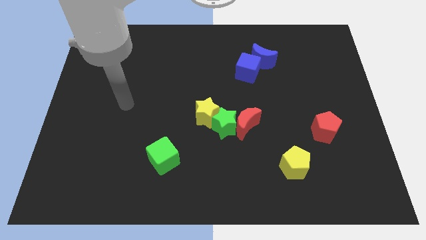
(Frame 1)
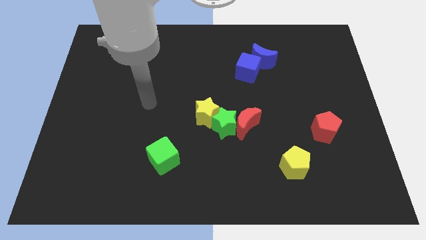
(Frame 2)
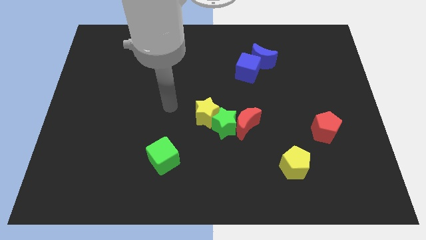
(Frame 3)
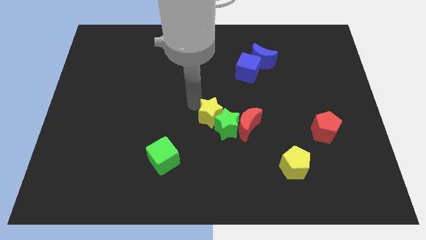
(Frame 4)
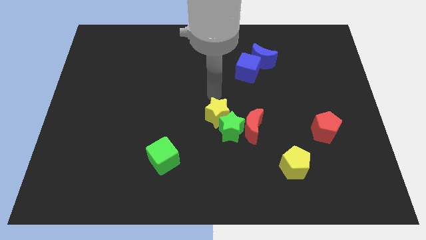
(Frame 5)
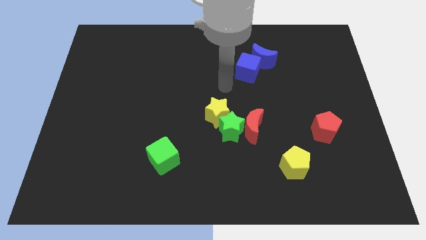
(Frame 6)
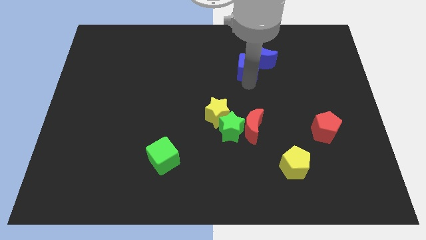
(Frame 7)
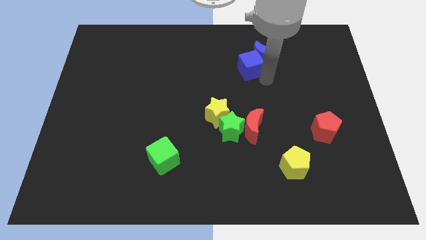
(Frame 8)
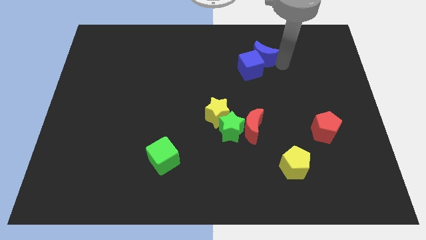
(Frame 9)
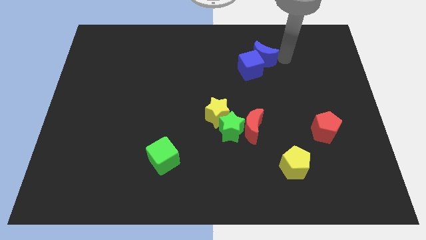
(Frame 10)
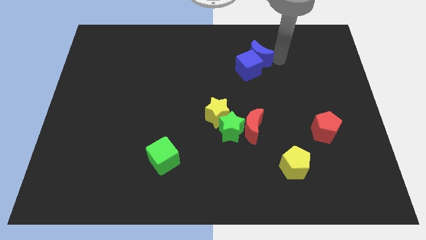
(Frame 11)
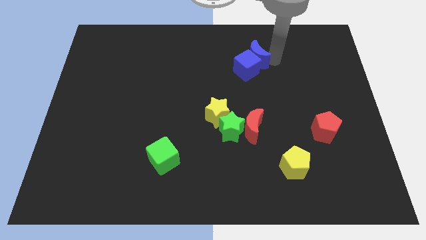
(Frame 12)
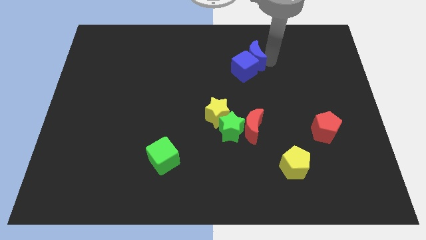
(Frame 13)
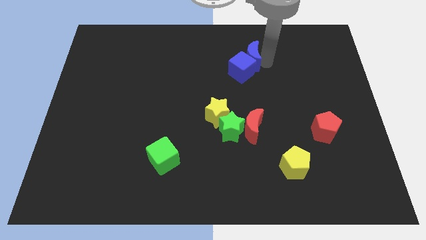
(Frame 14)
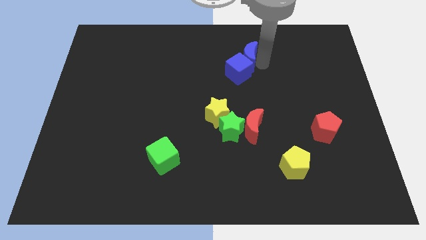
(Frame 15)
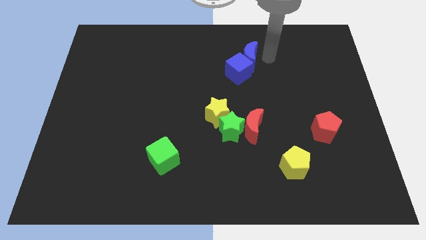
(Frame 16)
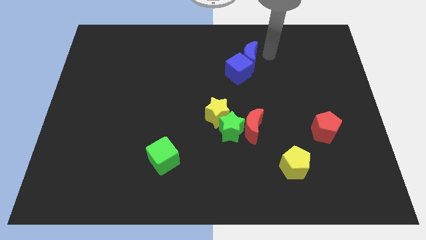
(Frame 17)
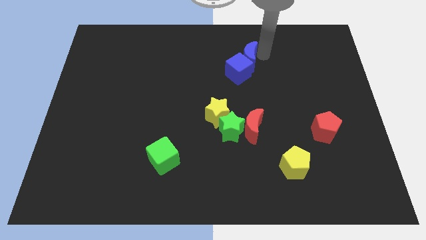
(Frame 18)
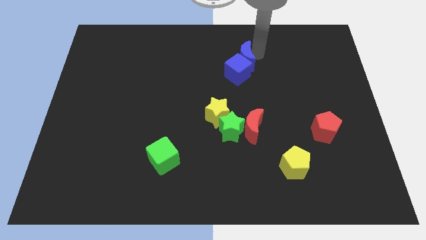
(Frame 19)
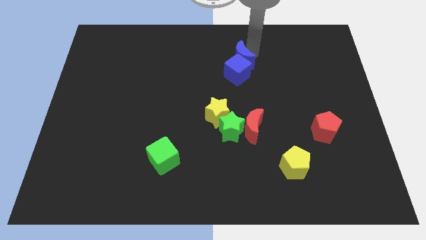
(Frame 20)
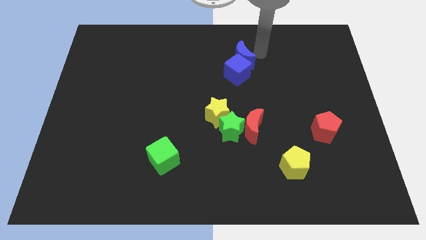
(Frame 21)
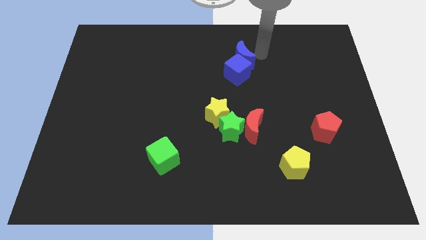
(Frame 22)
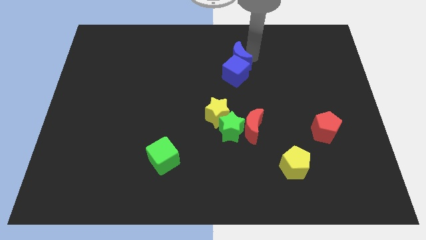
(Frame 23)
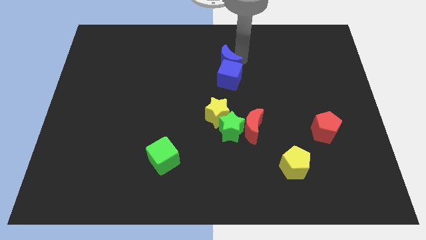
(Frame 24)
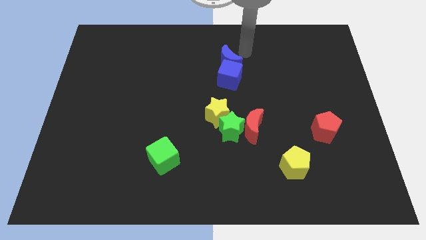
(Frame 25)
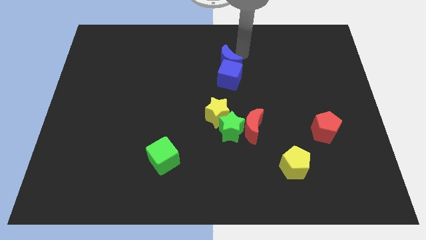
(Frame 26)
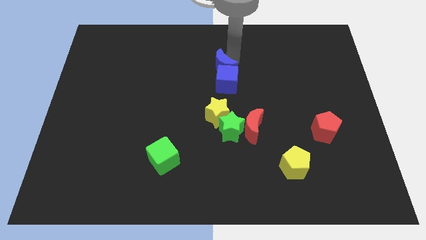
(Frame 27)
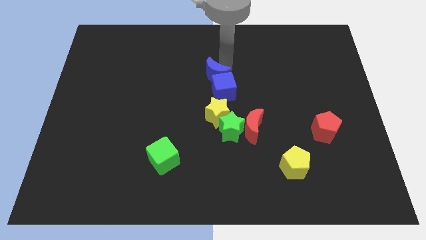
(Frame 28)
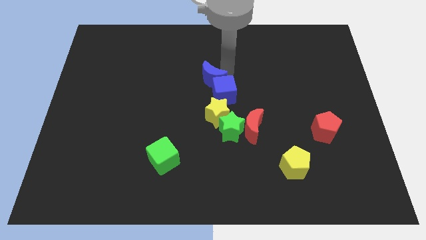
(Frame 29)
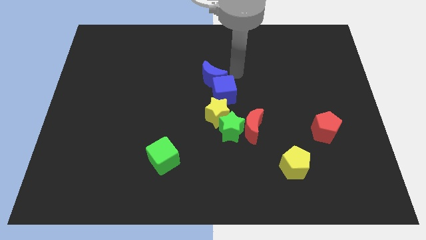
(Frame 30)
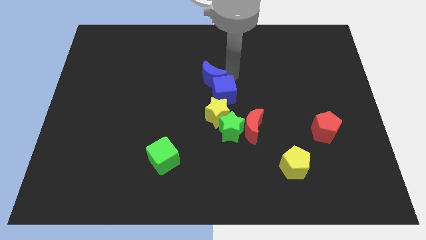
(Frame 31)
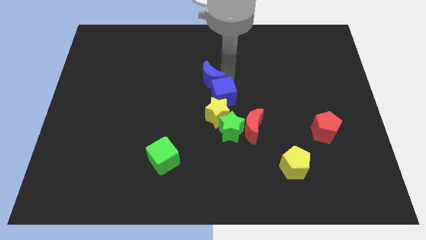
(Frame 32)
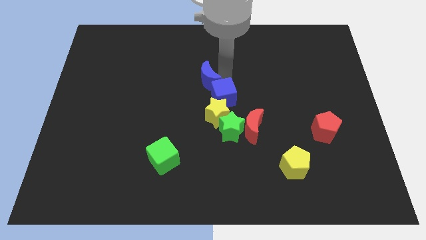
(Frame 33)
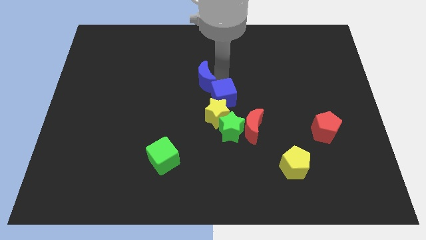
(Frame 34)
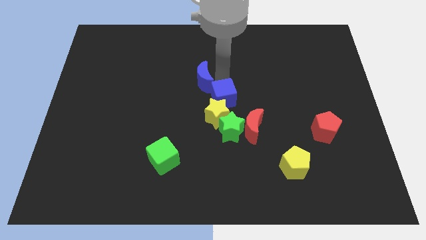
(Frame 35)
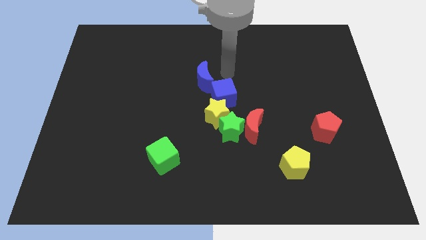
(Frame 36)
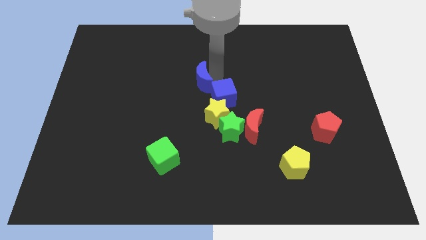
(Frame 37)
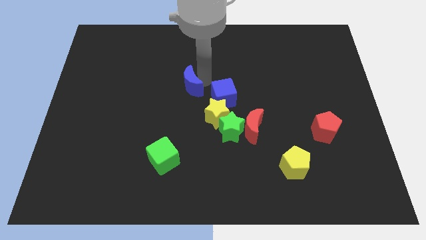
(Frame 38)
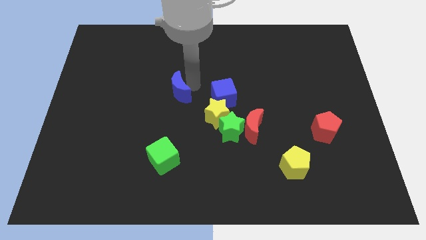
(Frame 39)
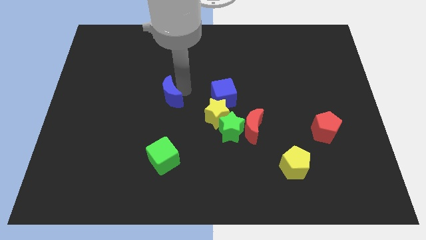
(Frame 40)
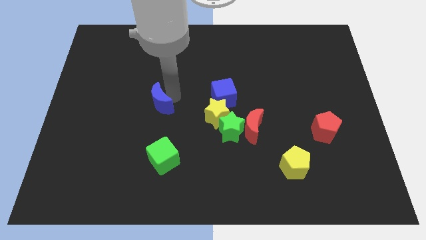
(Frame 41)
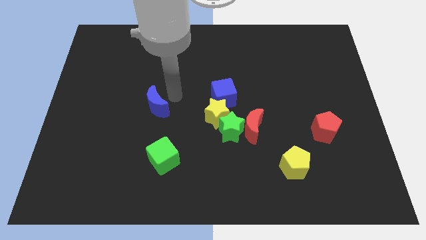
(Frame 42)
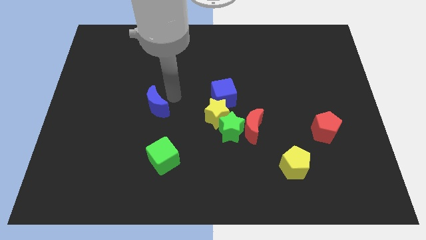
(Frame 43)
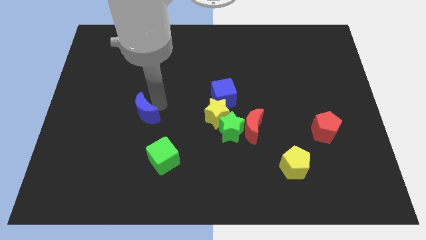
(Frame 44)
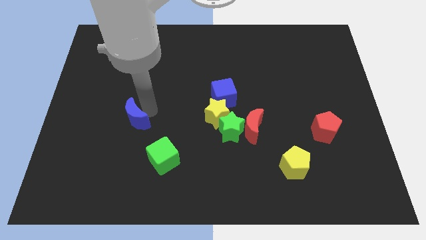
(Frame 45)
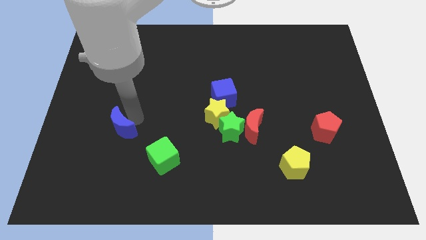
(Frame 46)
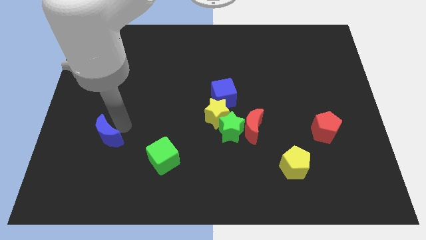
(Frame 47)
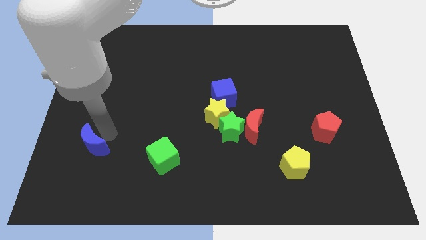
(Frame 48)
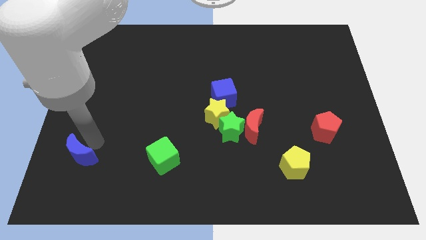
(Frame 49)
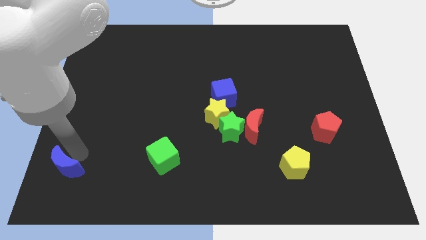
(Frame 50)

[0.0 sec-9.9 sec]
slide the blue moon to the bottom left

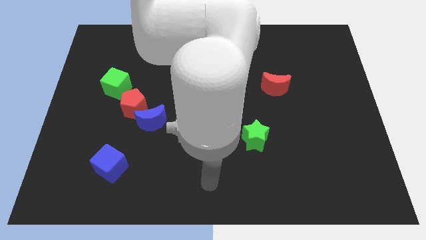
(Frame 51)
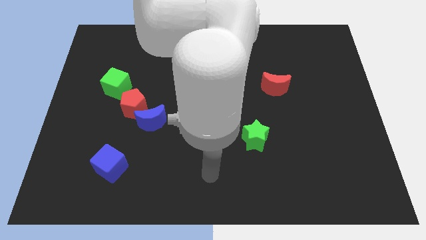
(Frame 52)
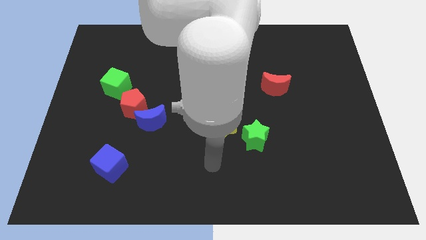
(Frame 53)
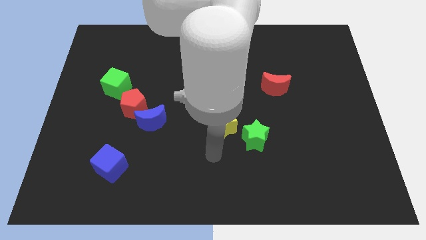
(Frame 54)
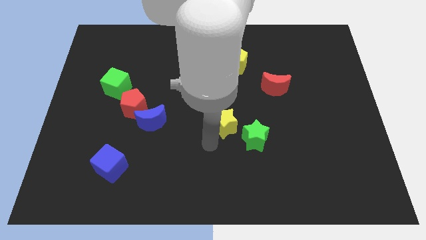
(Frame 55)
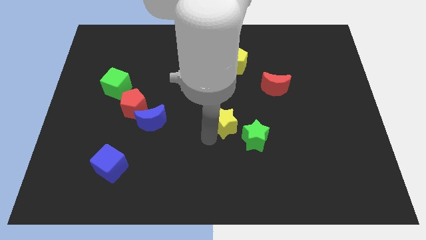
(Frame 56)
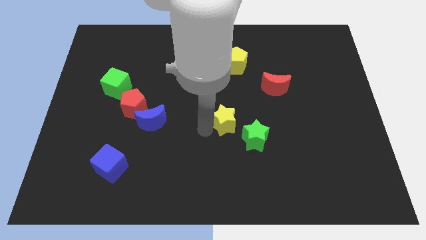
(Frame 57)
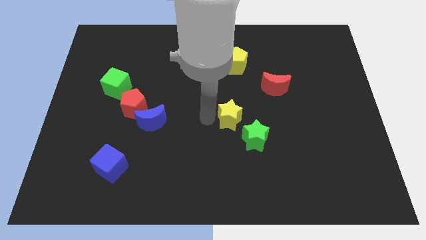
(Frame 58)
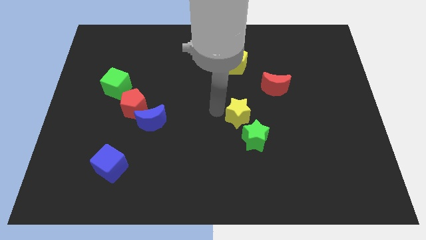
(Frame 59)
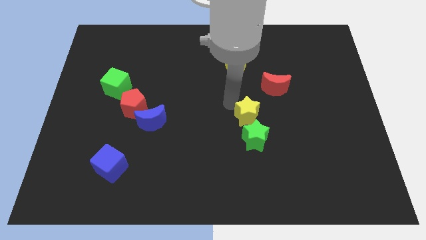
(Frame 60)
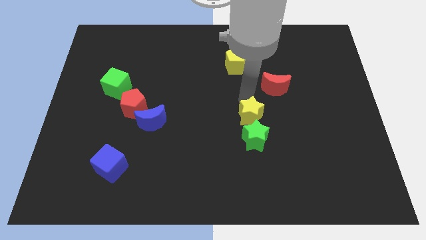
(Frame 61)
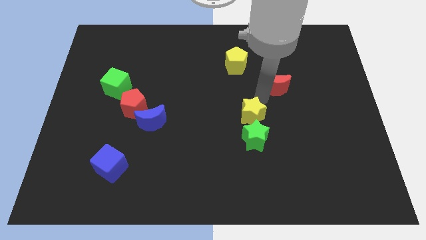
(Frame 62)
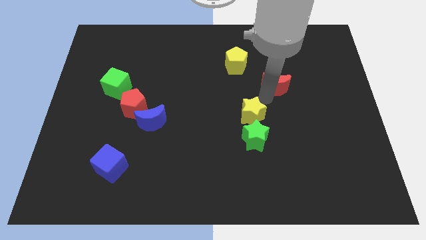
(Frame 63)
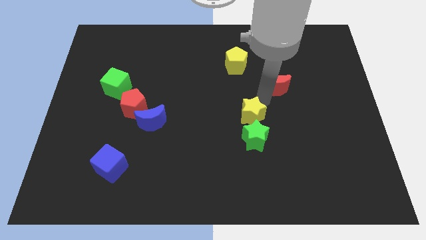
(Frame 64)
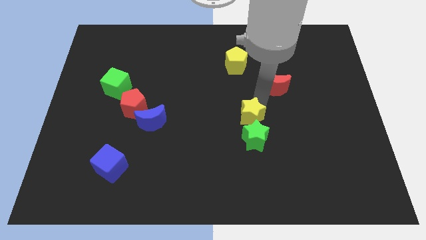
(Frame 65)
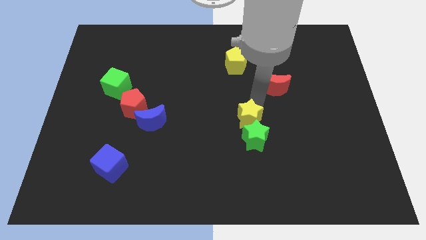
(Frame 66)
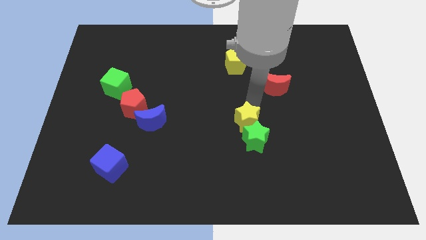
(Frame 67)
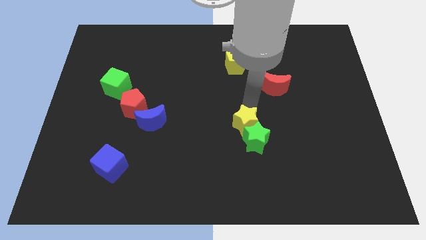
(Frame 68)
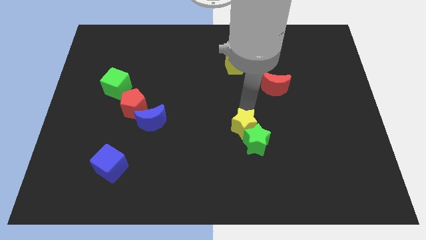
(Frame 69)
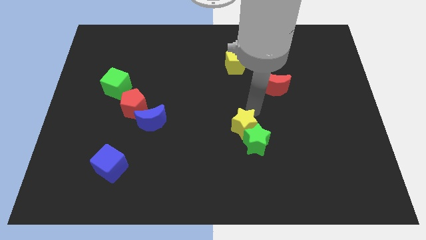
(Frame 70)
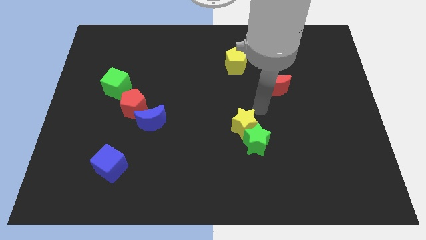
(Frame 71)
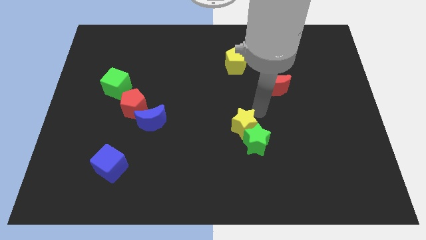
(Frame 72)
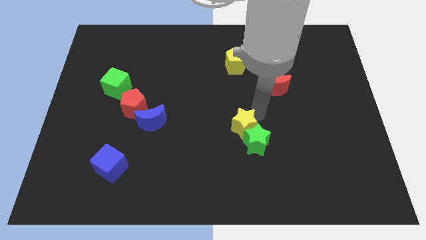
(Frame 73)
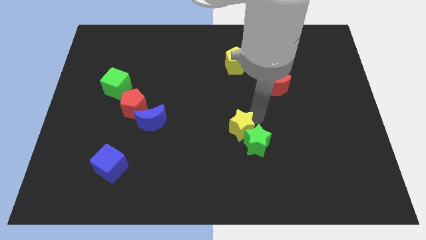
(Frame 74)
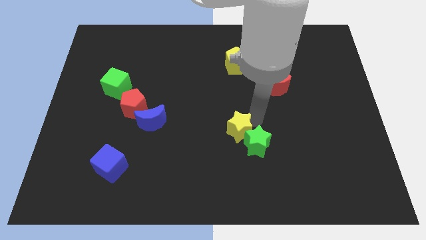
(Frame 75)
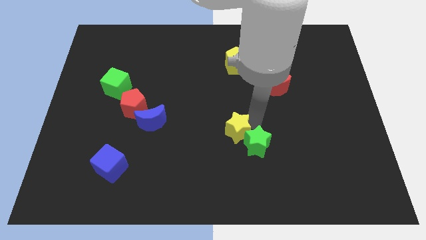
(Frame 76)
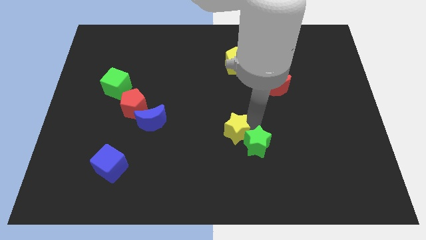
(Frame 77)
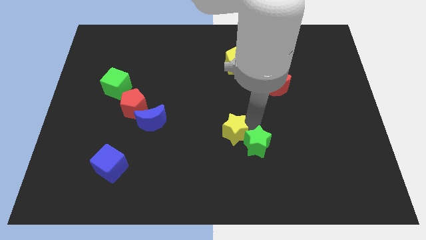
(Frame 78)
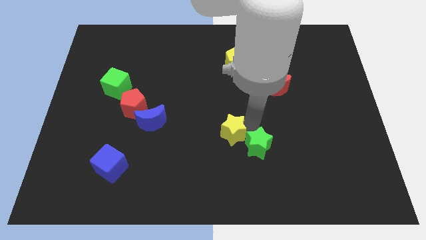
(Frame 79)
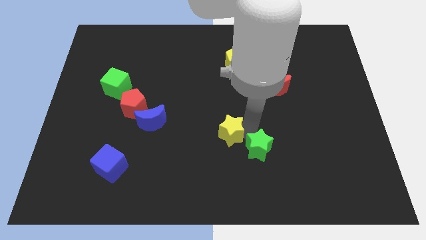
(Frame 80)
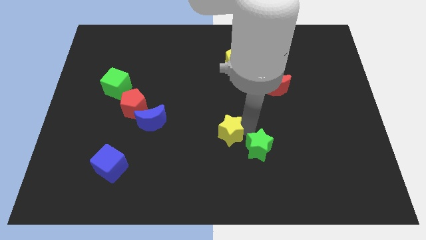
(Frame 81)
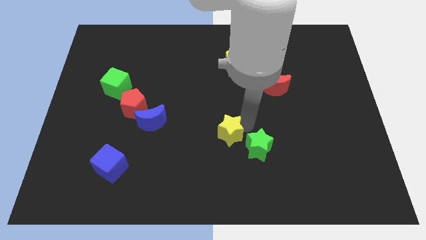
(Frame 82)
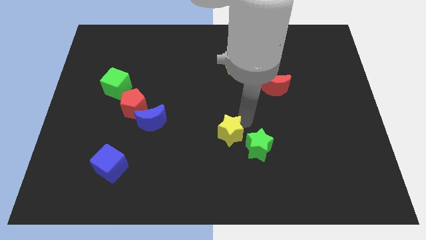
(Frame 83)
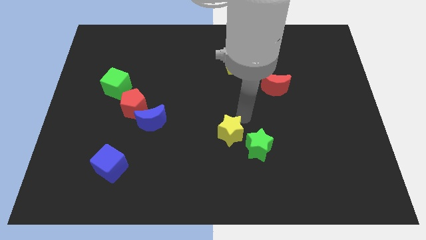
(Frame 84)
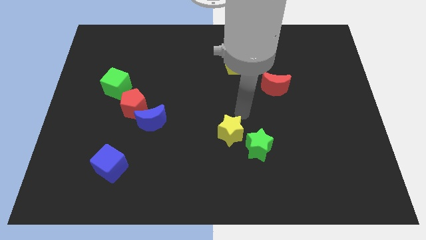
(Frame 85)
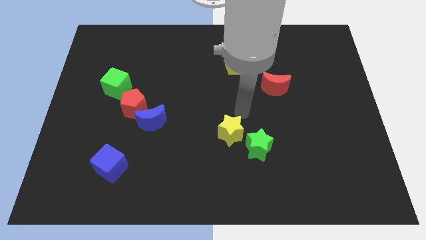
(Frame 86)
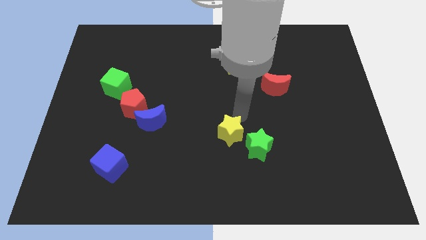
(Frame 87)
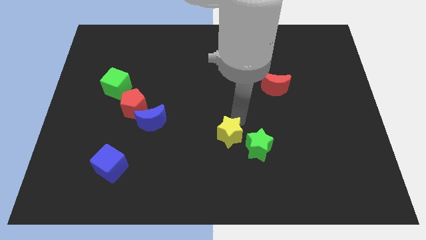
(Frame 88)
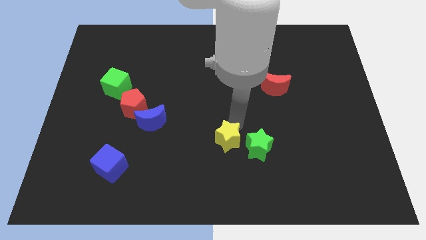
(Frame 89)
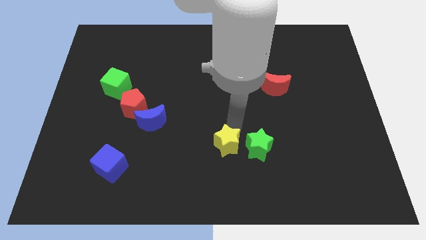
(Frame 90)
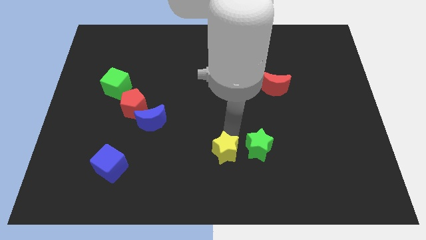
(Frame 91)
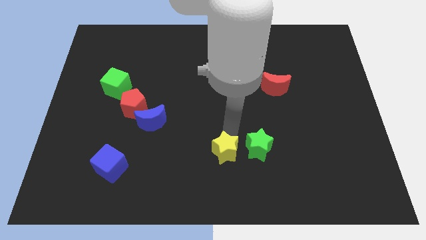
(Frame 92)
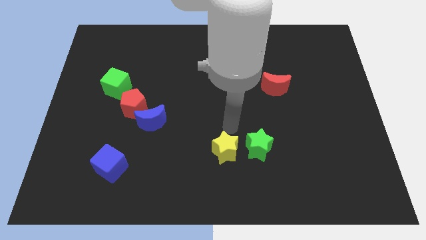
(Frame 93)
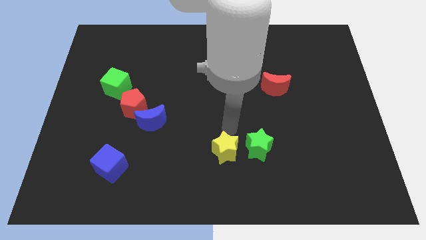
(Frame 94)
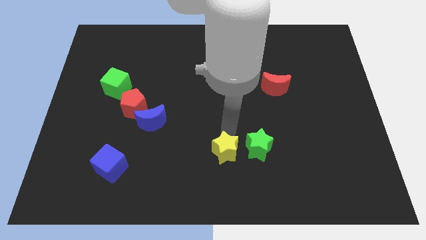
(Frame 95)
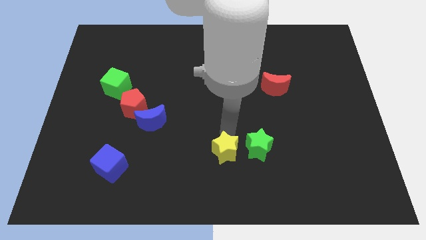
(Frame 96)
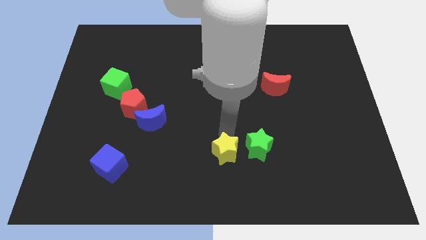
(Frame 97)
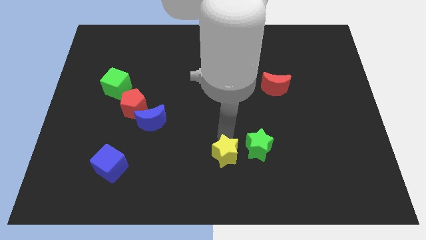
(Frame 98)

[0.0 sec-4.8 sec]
put the yellow star to the bottom side
